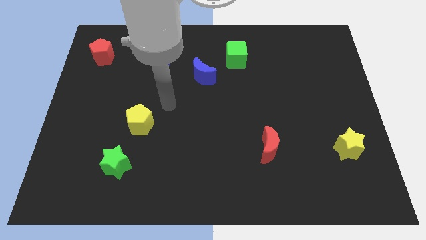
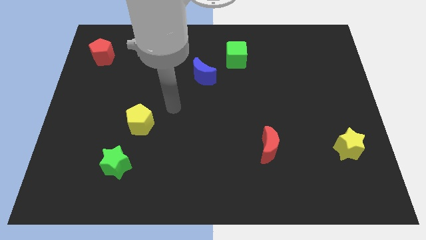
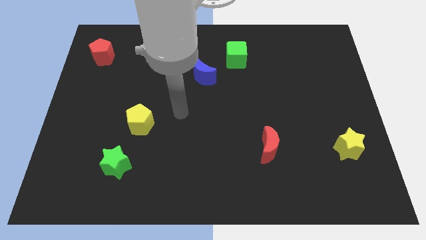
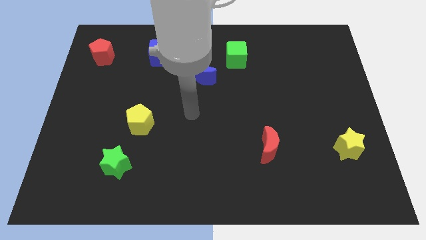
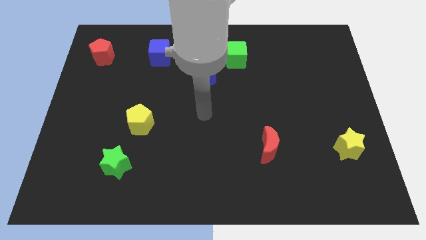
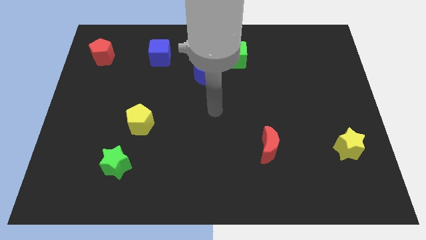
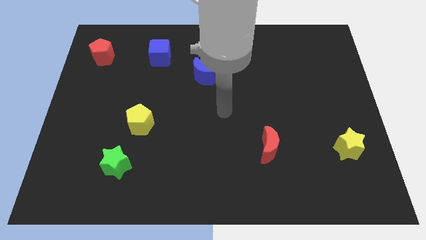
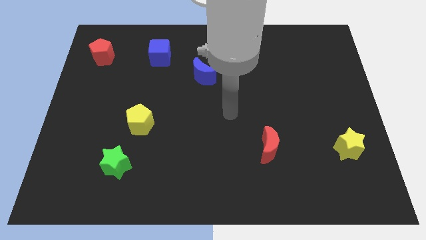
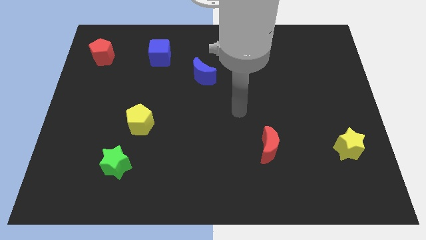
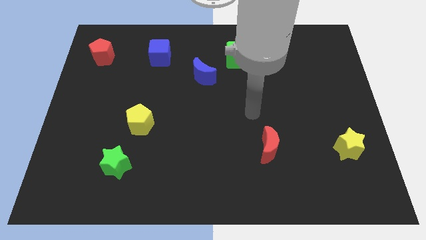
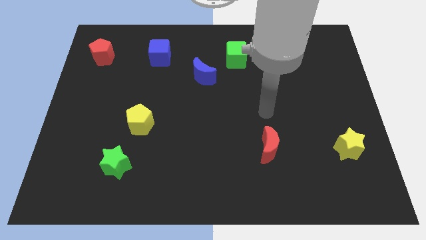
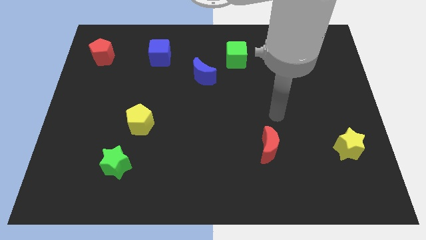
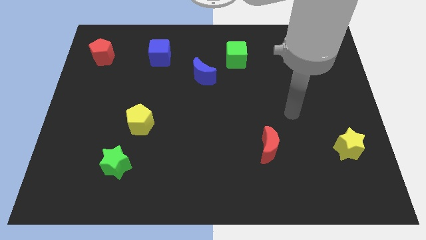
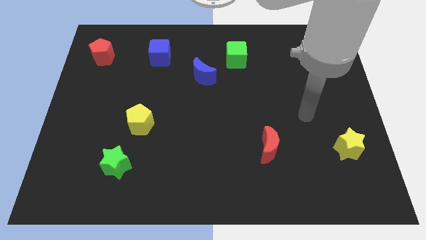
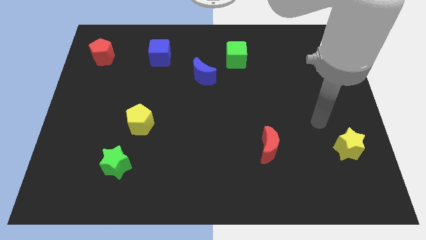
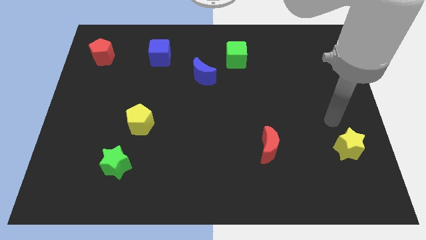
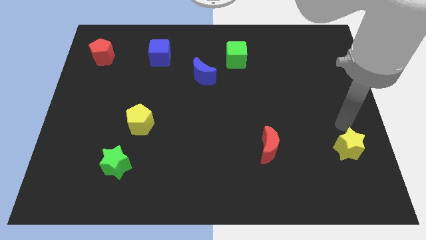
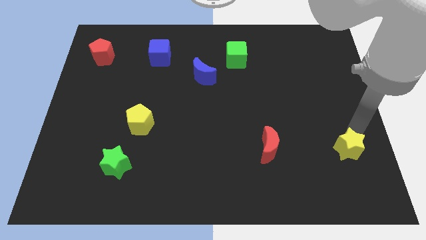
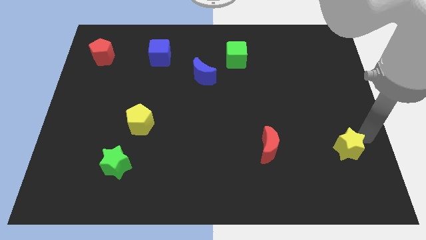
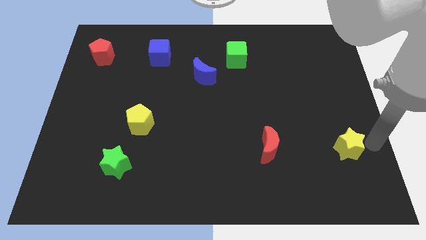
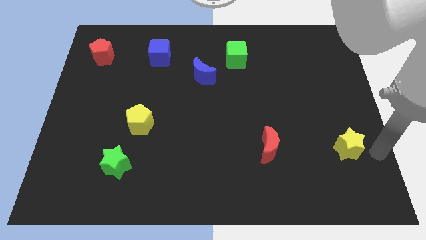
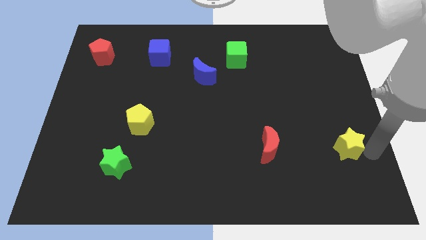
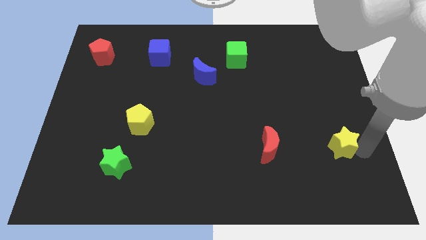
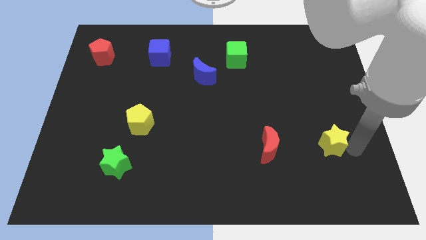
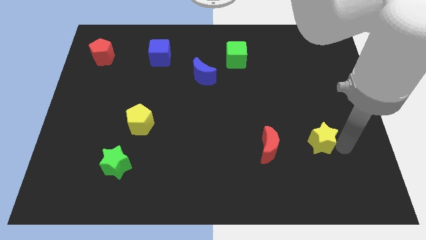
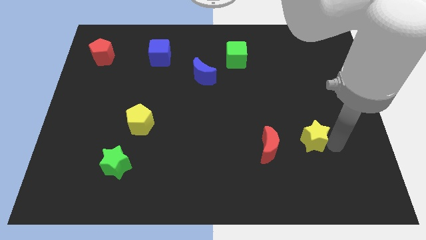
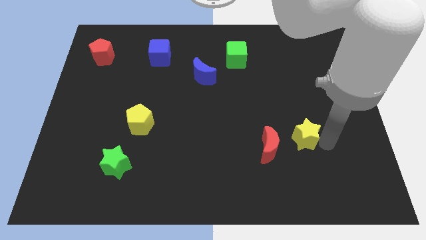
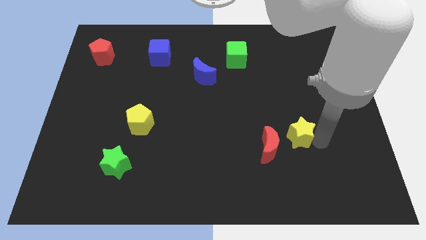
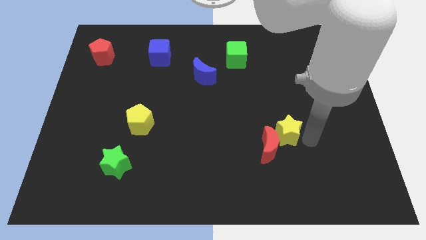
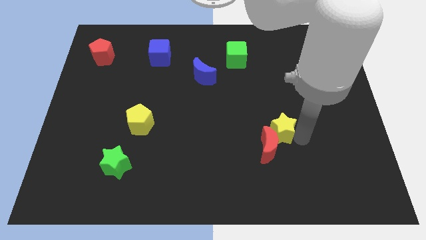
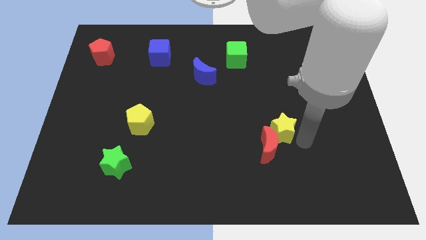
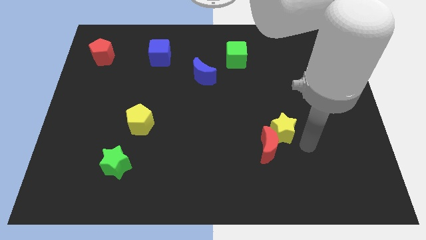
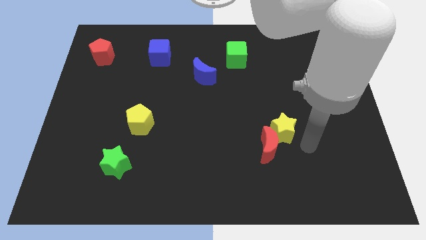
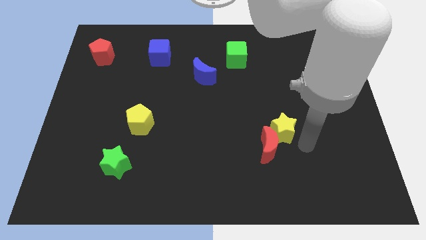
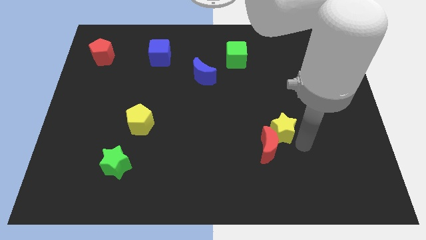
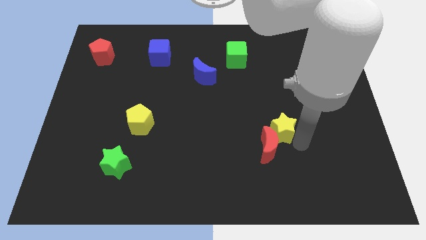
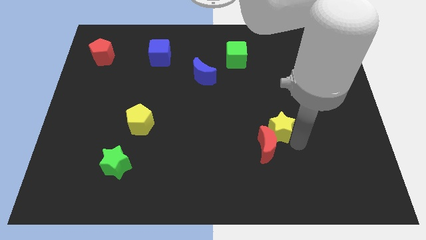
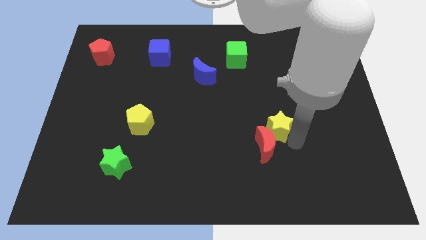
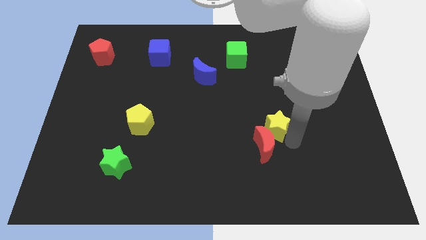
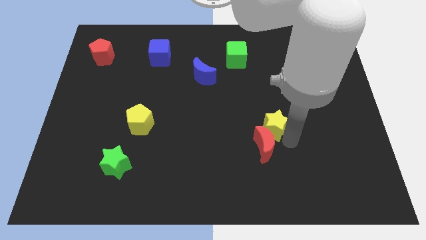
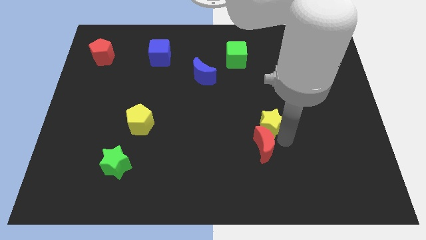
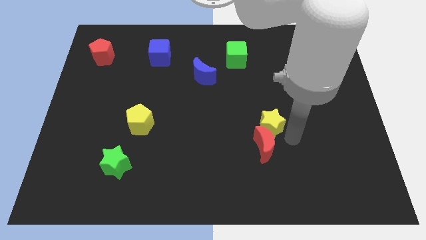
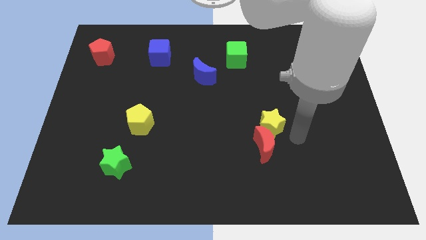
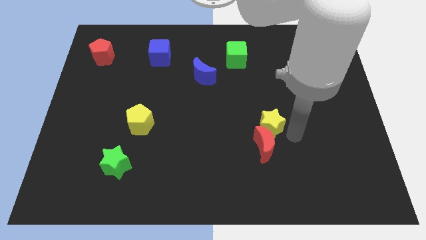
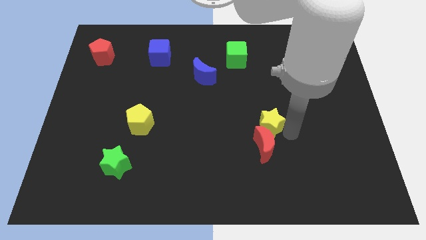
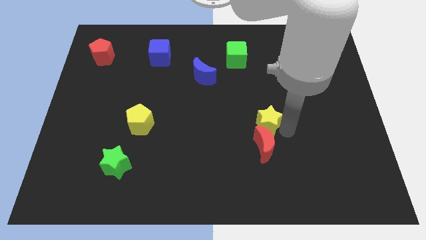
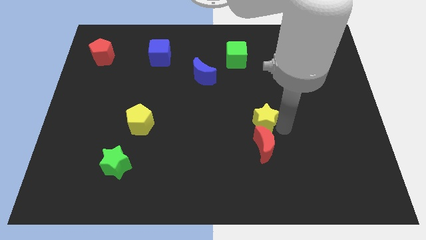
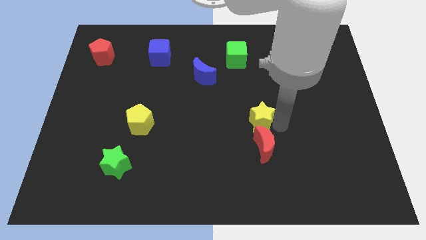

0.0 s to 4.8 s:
push the yellow star to the middle of the board

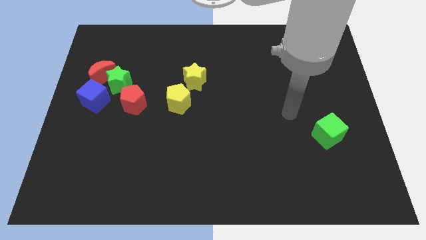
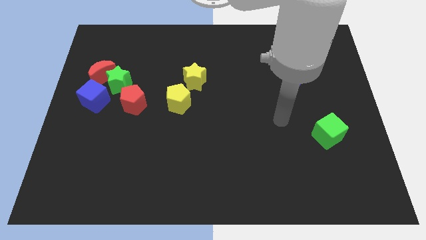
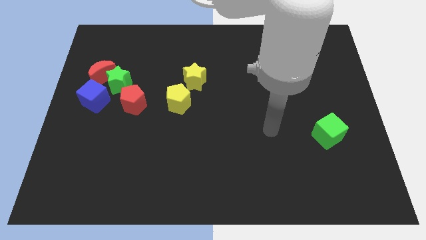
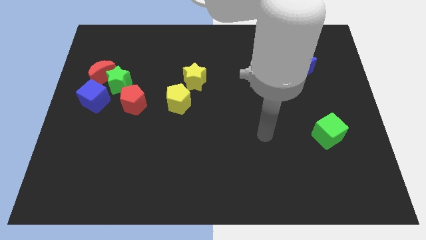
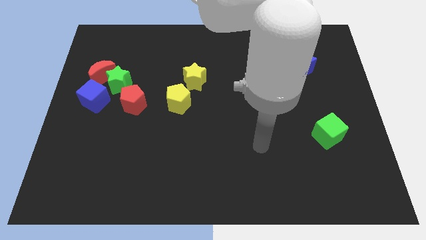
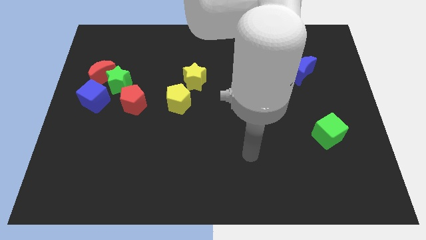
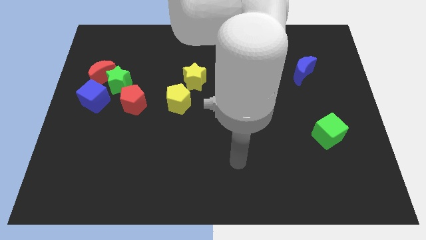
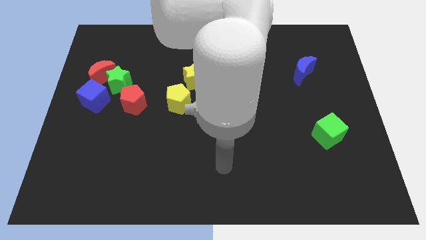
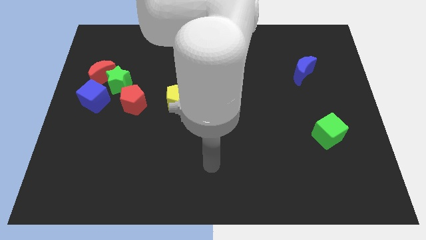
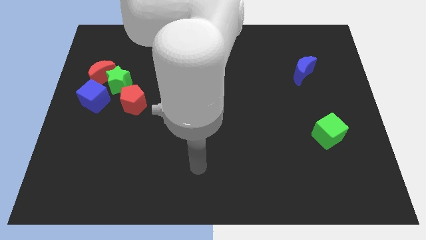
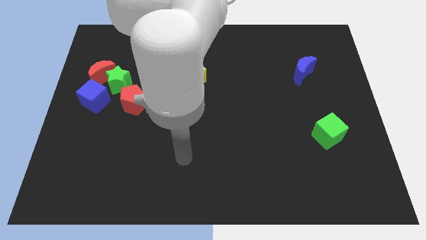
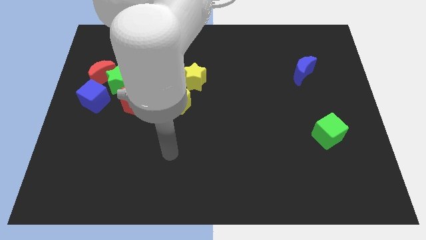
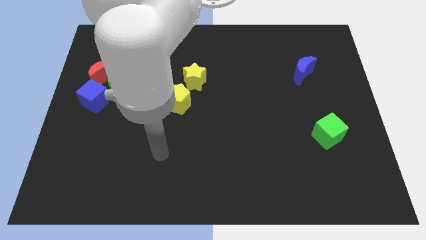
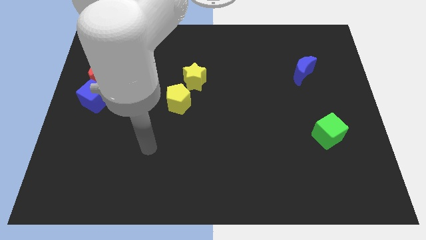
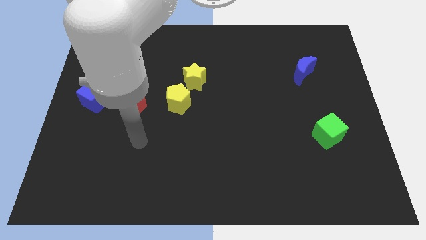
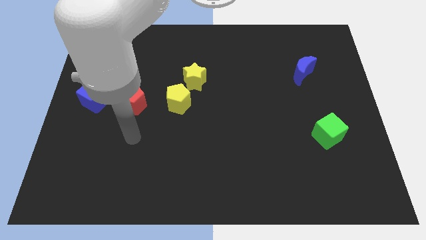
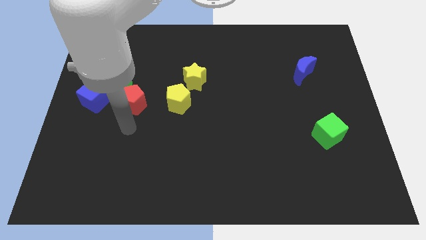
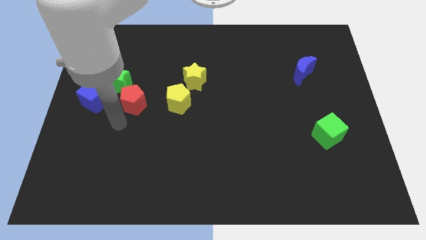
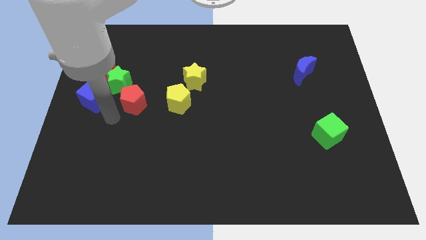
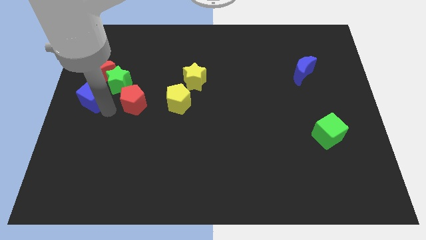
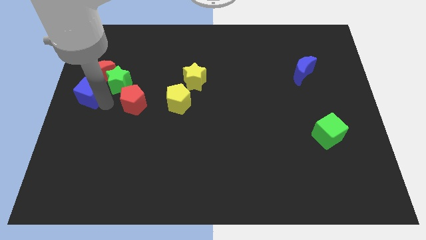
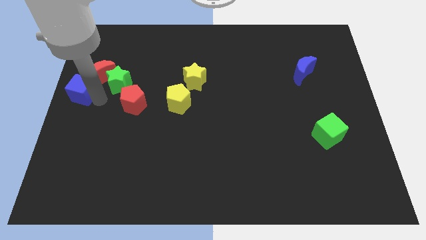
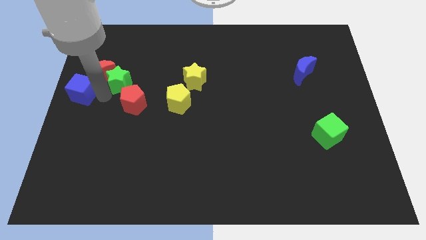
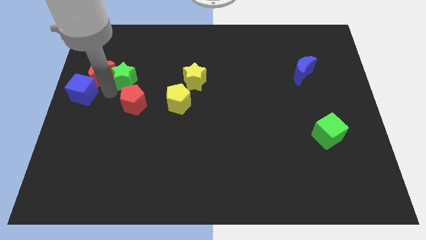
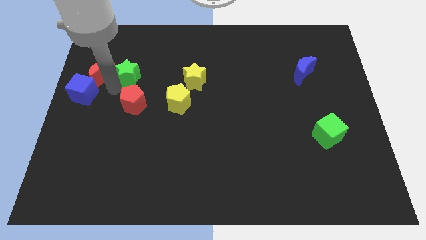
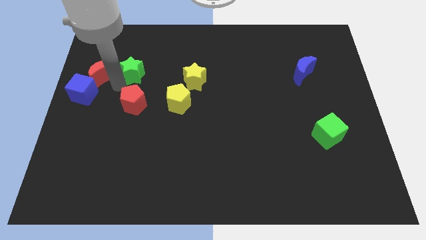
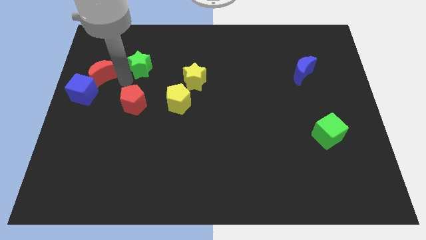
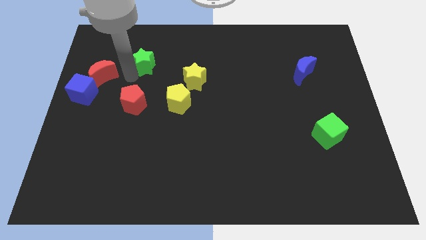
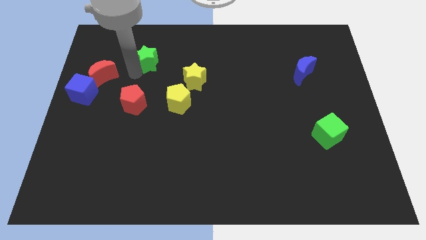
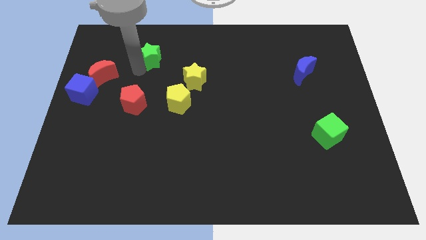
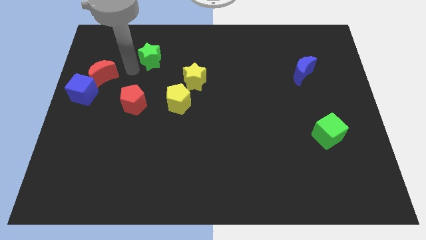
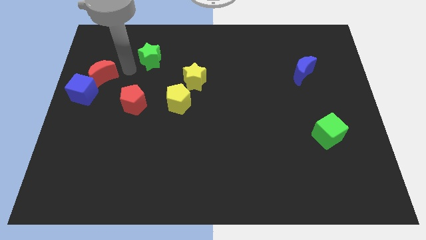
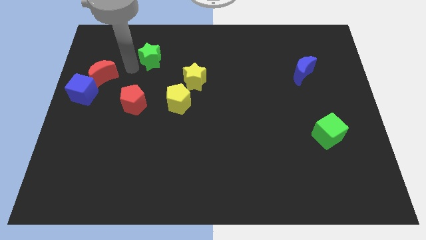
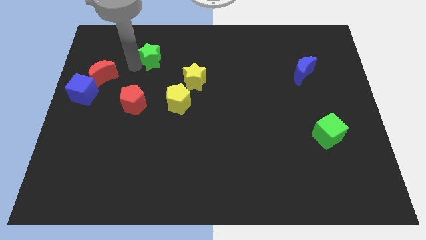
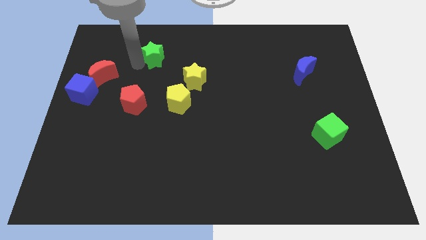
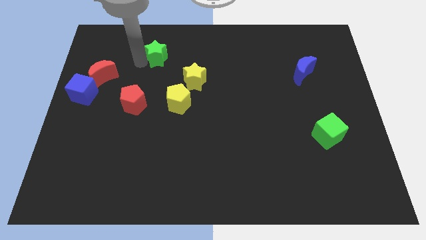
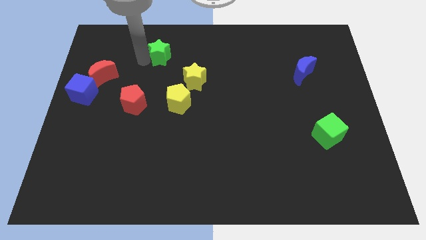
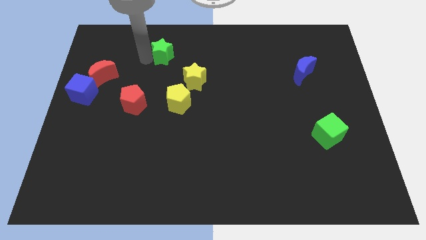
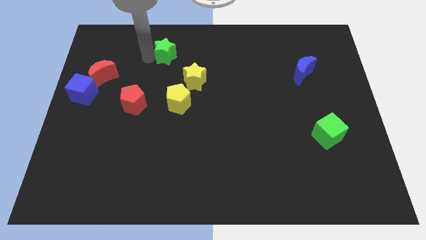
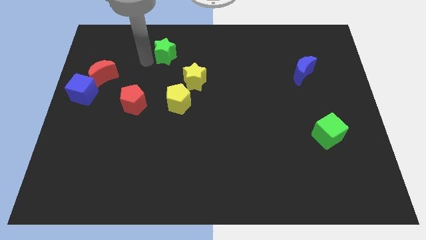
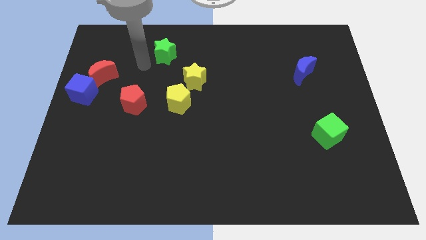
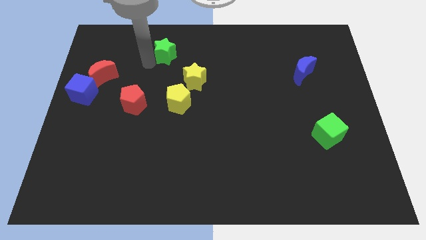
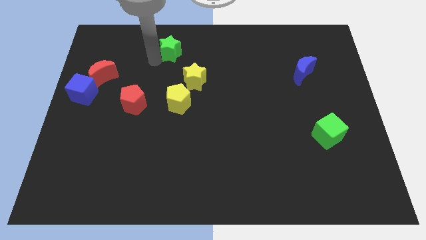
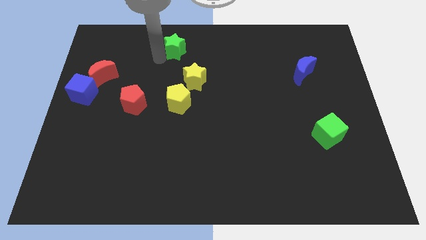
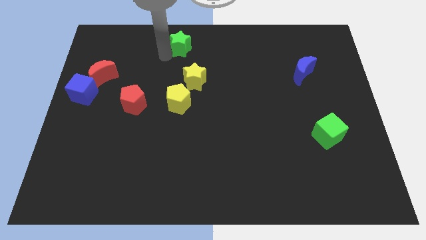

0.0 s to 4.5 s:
slide the green star to the top side
